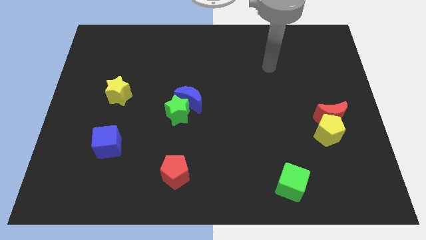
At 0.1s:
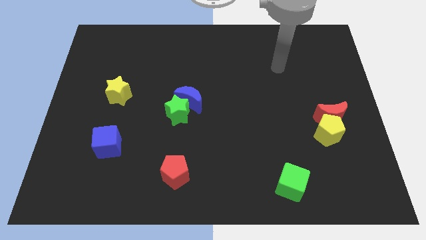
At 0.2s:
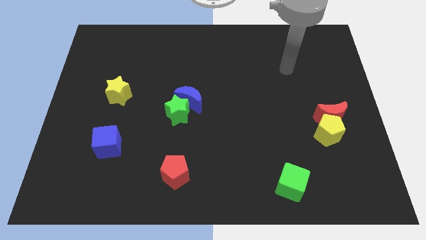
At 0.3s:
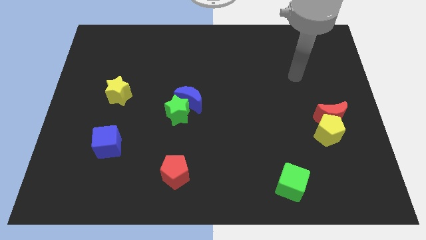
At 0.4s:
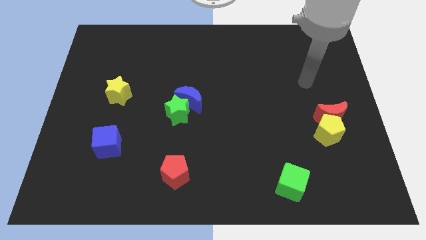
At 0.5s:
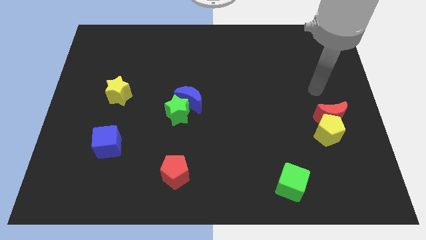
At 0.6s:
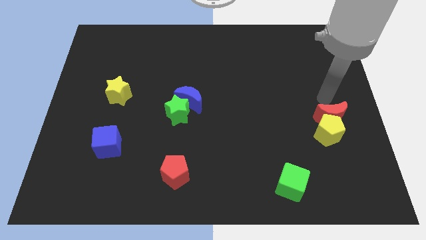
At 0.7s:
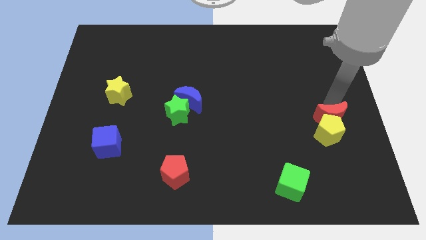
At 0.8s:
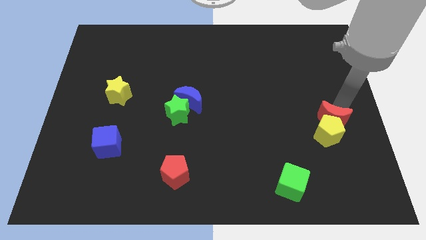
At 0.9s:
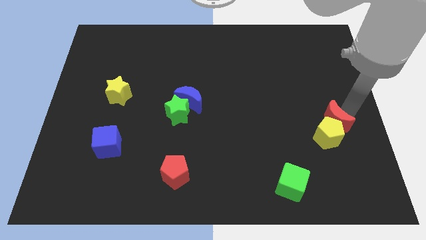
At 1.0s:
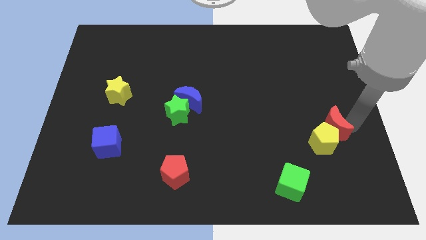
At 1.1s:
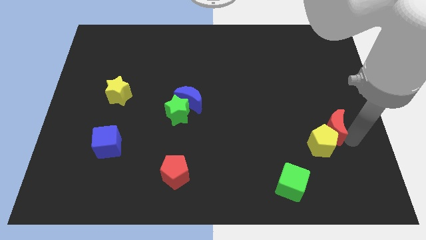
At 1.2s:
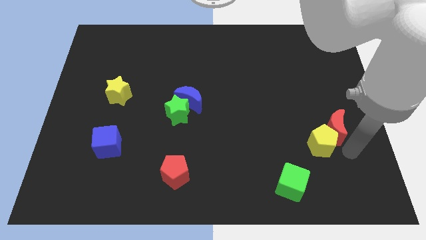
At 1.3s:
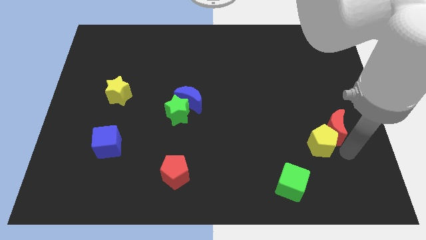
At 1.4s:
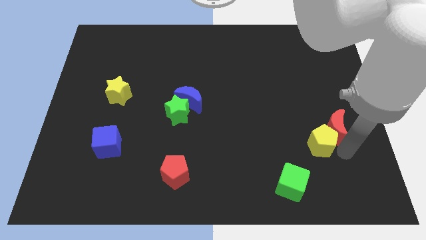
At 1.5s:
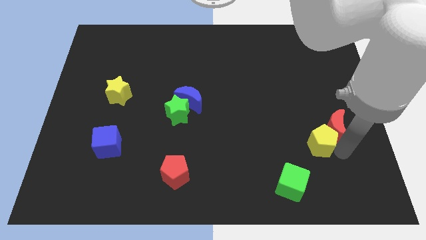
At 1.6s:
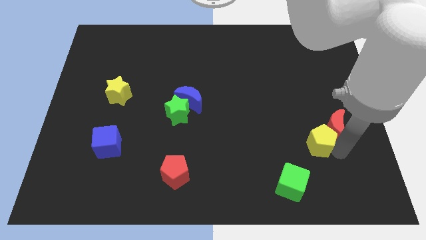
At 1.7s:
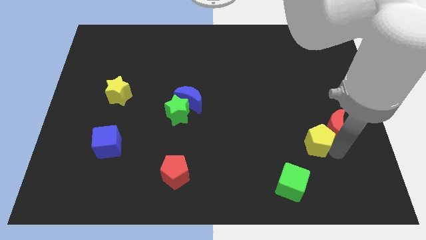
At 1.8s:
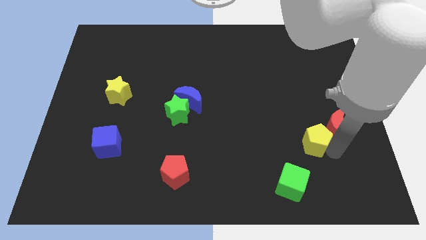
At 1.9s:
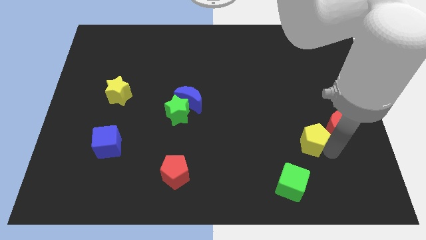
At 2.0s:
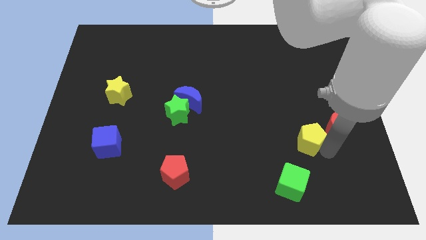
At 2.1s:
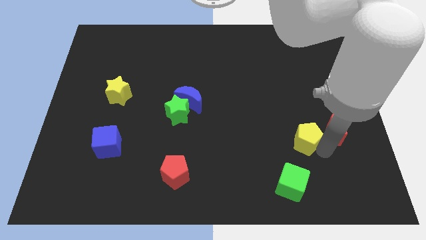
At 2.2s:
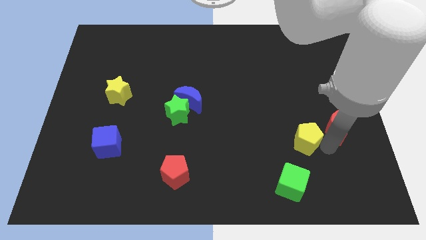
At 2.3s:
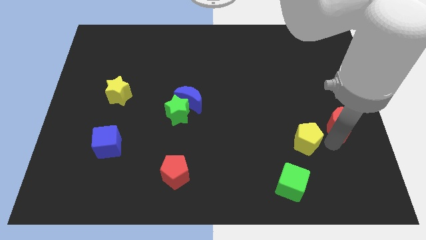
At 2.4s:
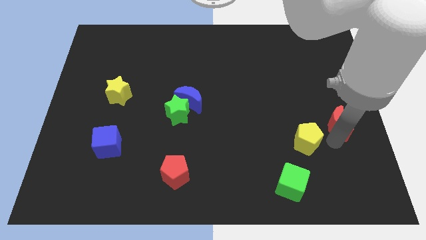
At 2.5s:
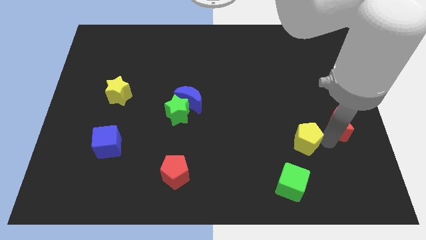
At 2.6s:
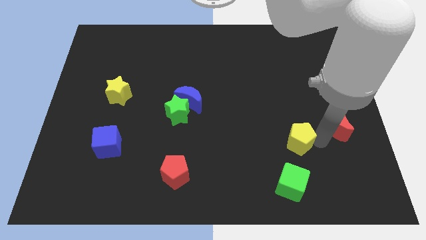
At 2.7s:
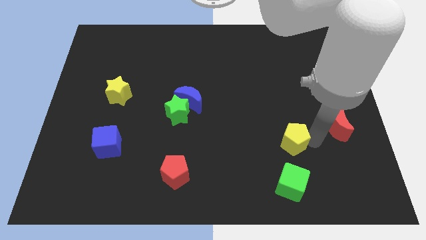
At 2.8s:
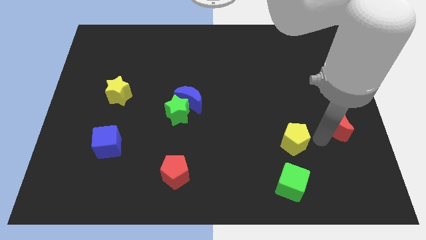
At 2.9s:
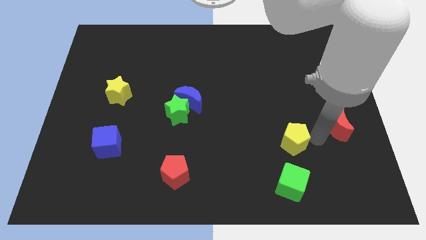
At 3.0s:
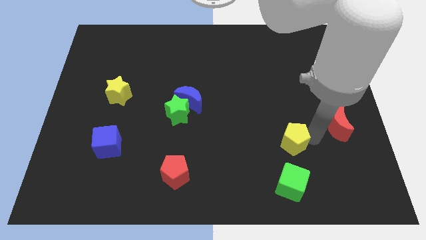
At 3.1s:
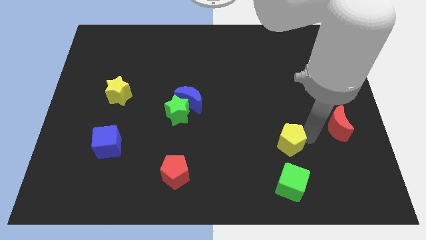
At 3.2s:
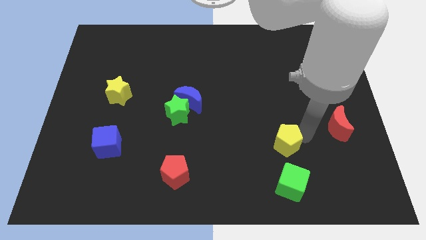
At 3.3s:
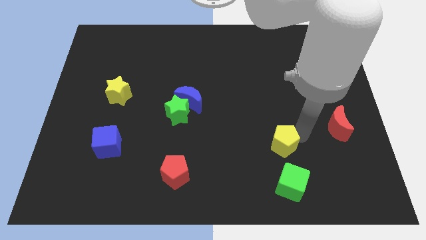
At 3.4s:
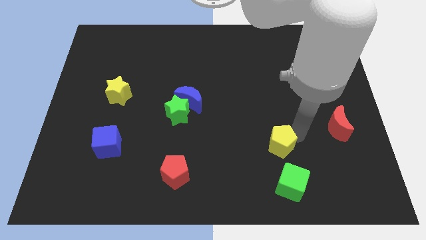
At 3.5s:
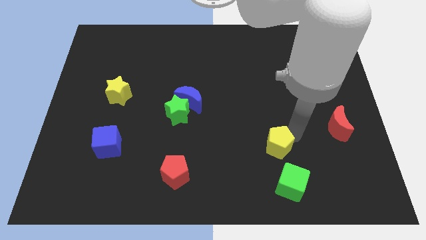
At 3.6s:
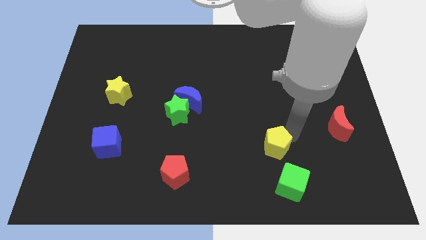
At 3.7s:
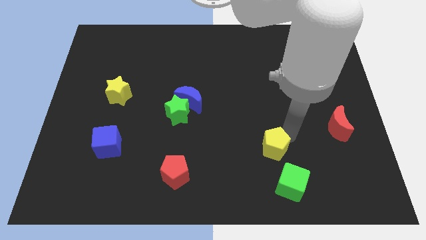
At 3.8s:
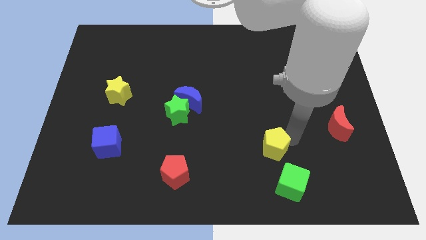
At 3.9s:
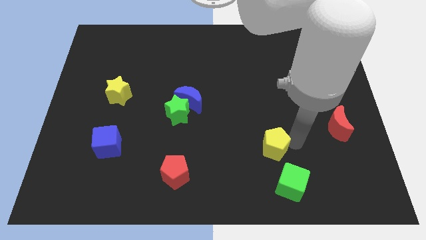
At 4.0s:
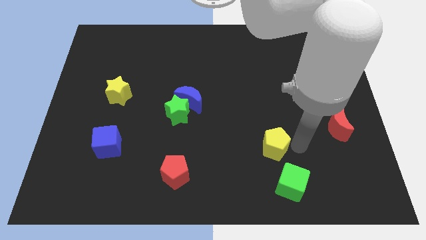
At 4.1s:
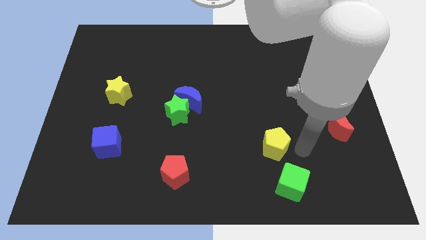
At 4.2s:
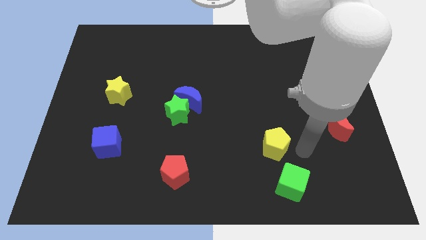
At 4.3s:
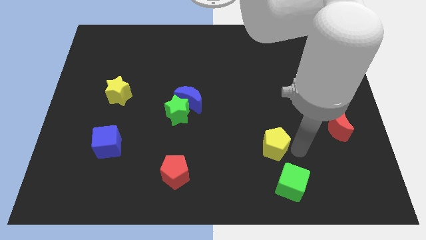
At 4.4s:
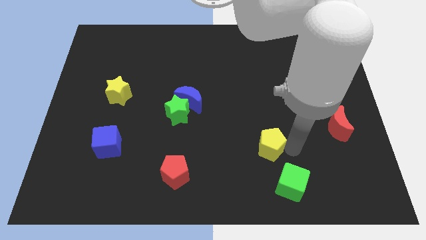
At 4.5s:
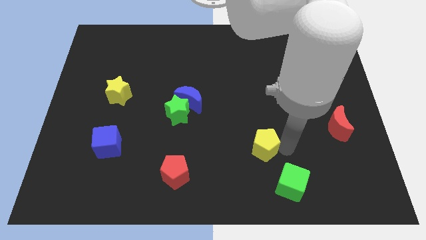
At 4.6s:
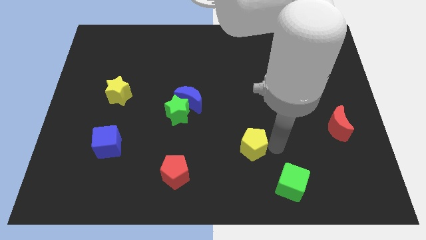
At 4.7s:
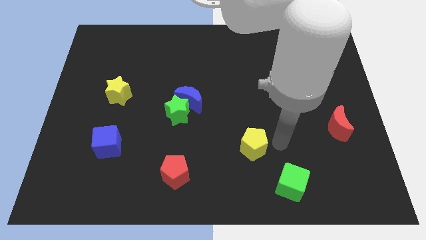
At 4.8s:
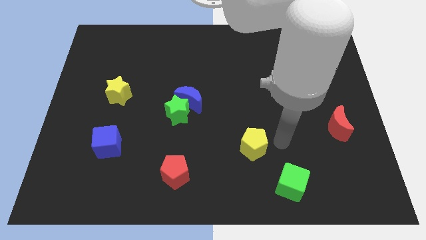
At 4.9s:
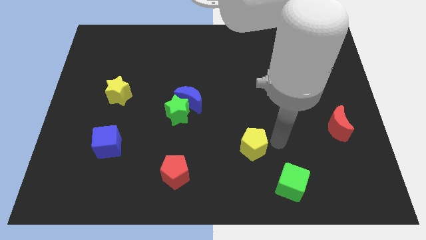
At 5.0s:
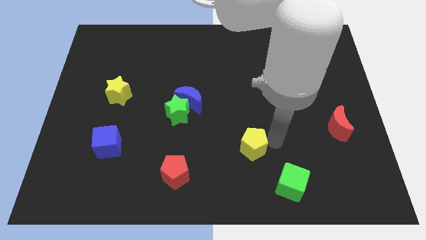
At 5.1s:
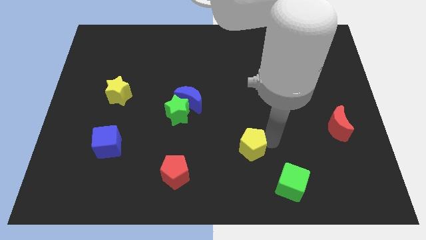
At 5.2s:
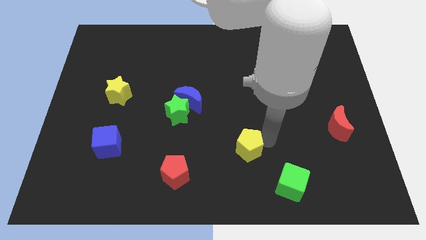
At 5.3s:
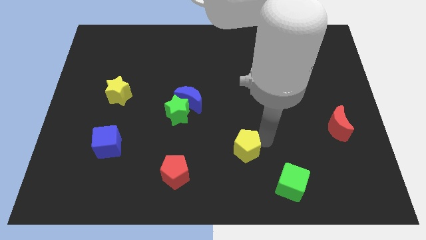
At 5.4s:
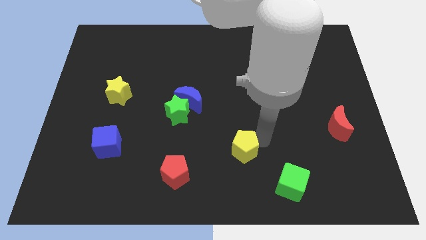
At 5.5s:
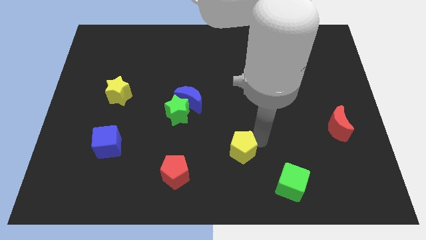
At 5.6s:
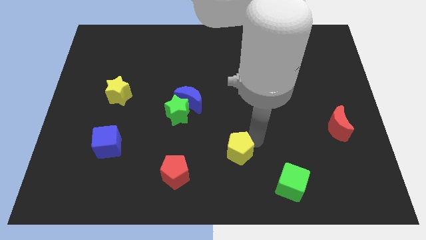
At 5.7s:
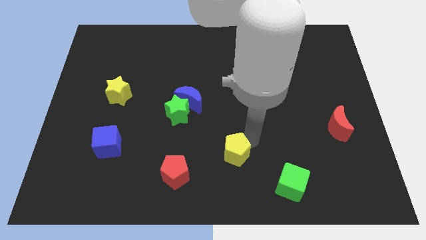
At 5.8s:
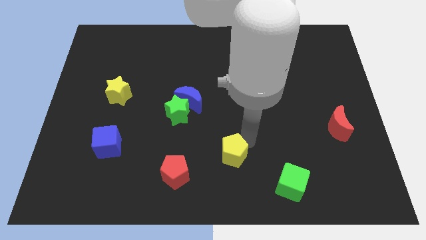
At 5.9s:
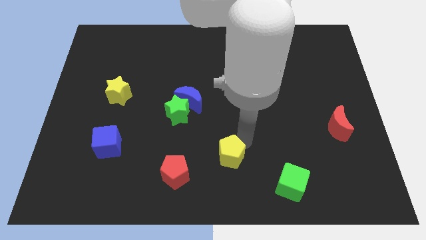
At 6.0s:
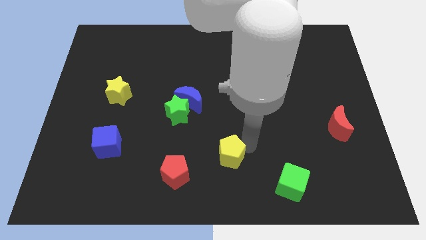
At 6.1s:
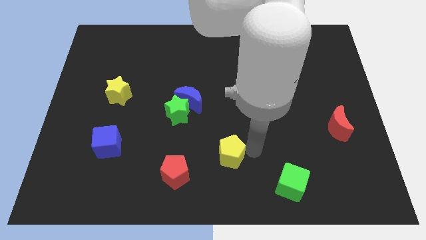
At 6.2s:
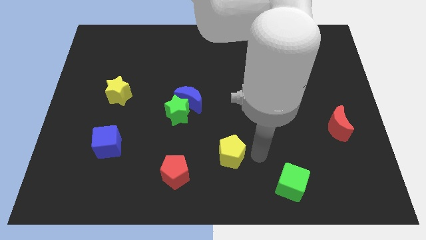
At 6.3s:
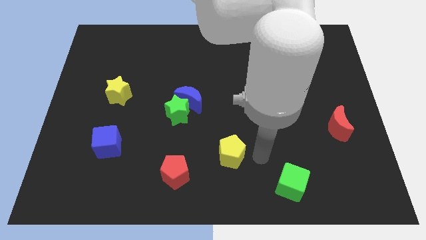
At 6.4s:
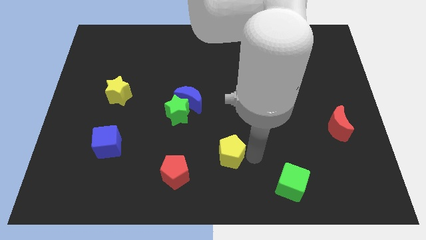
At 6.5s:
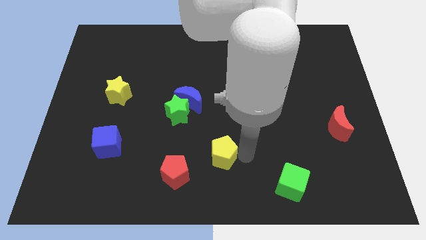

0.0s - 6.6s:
slide the yellow pentagon to the top right of the red pentagon

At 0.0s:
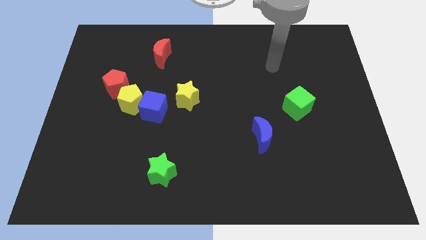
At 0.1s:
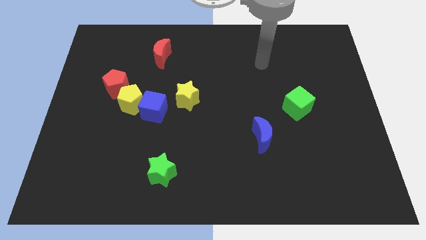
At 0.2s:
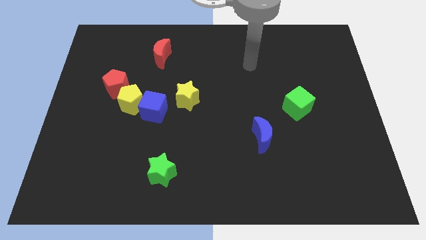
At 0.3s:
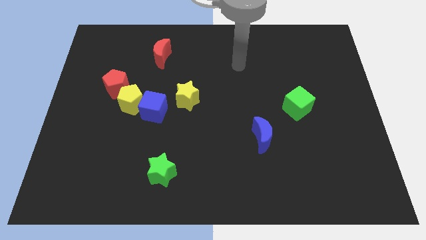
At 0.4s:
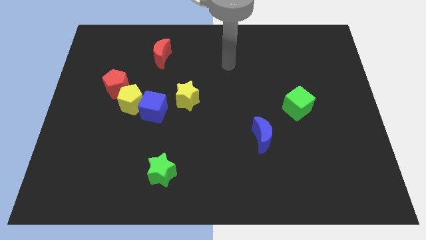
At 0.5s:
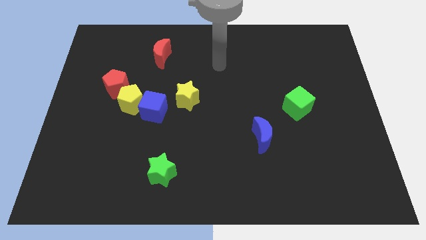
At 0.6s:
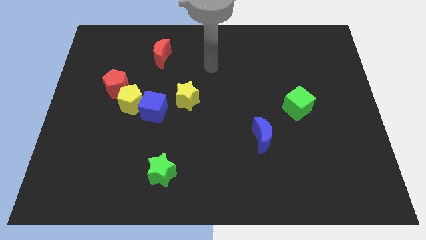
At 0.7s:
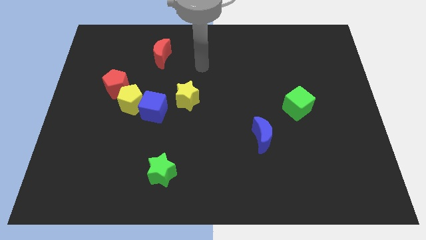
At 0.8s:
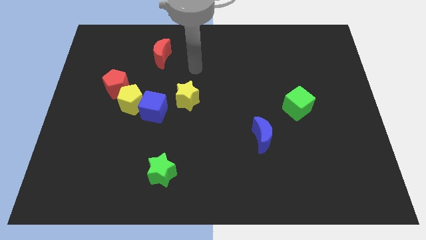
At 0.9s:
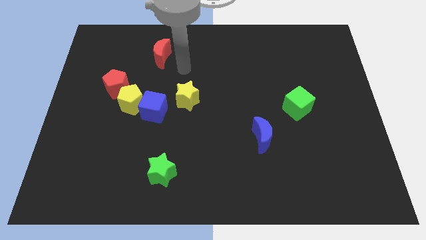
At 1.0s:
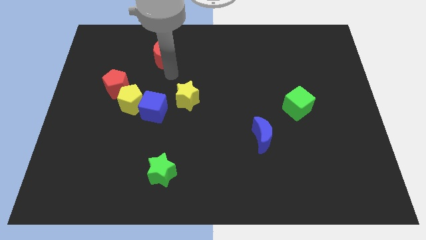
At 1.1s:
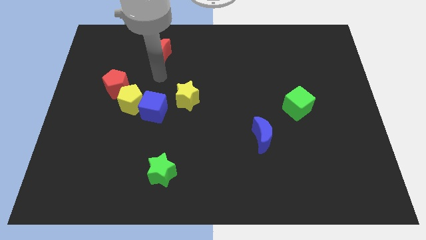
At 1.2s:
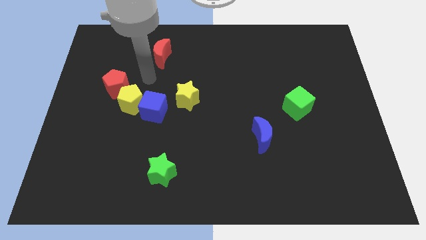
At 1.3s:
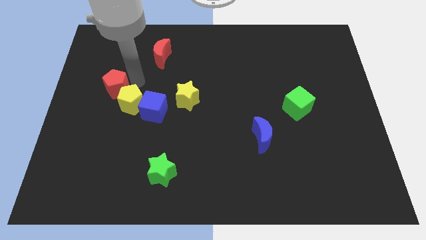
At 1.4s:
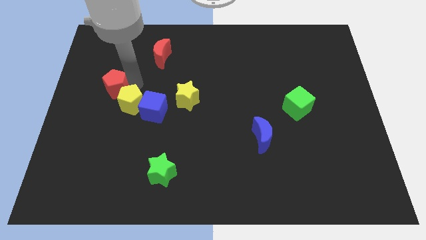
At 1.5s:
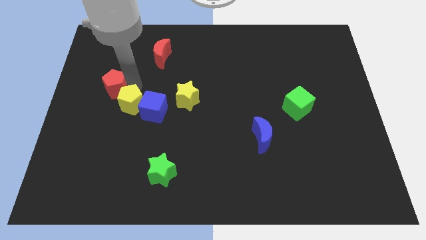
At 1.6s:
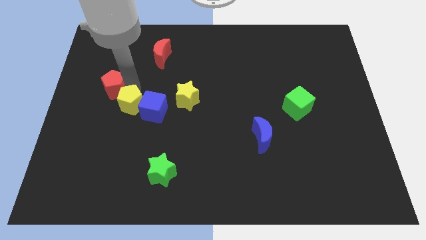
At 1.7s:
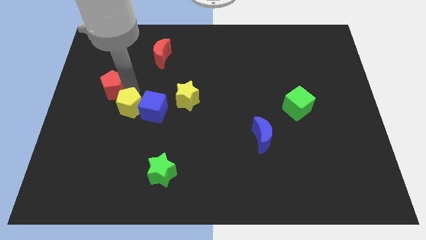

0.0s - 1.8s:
move the yellow pentagon to the bottom left of the blue cube
